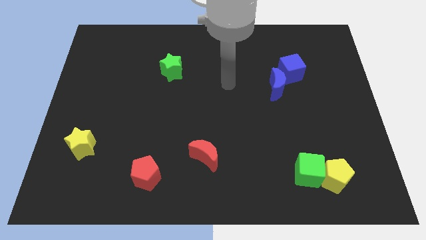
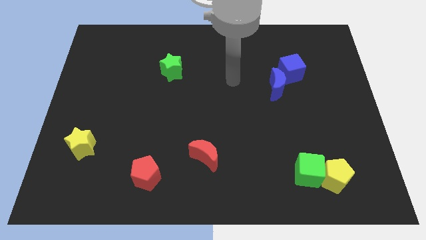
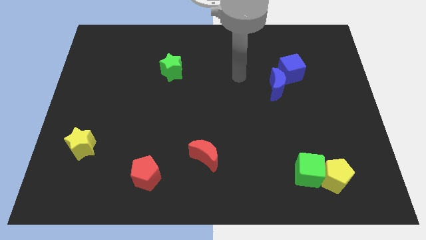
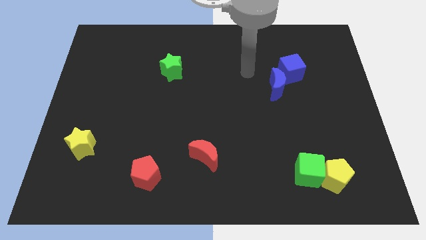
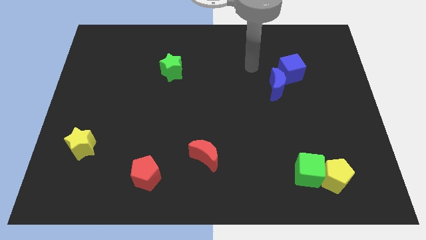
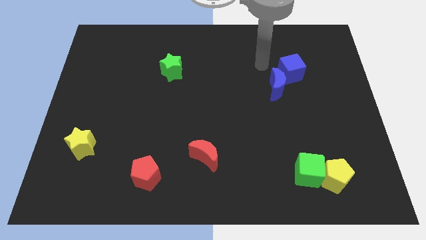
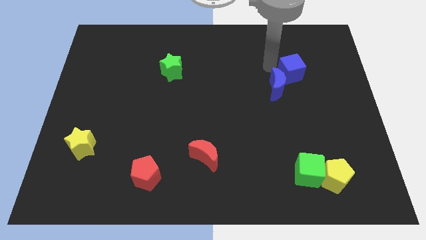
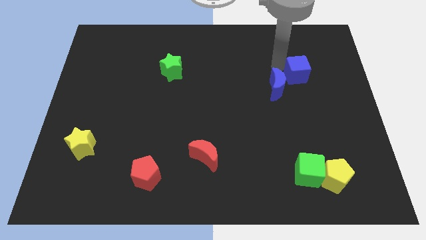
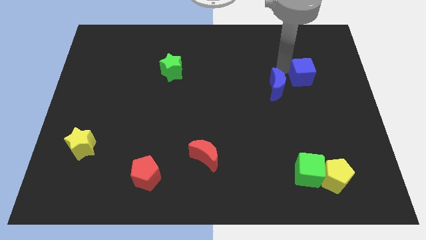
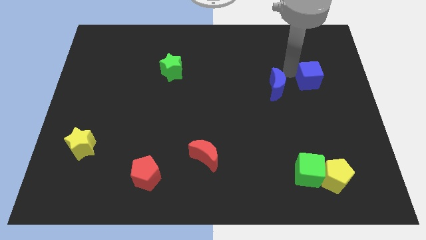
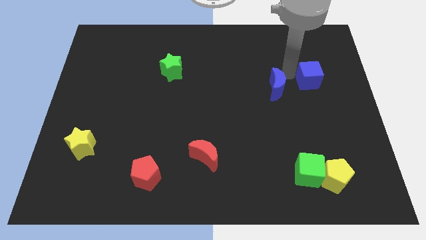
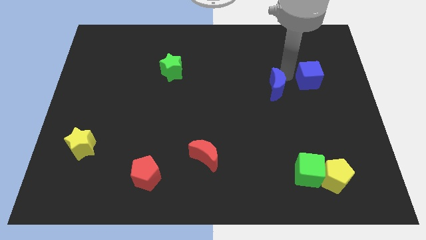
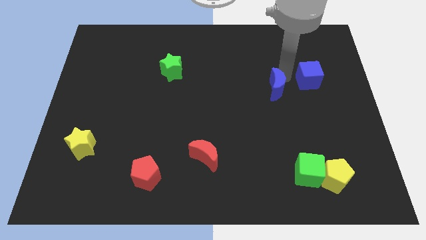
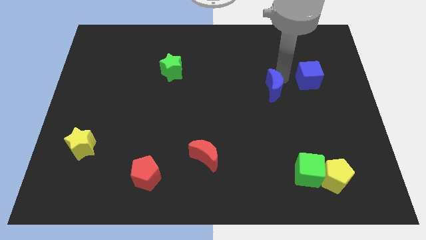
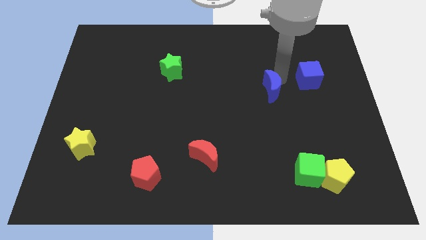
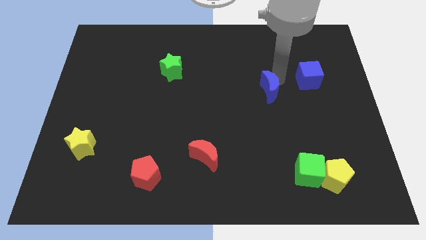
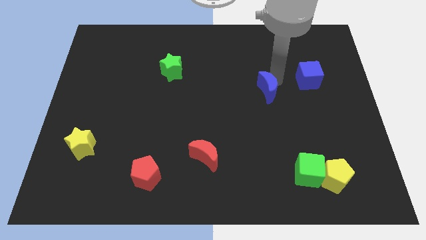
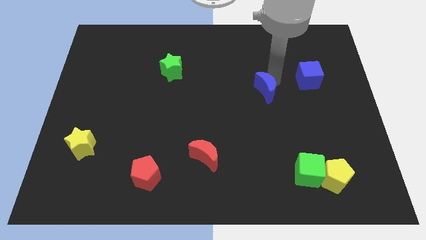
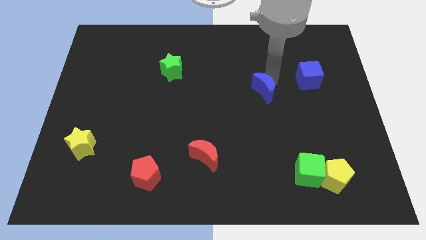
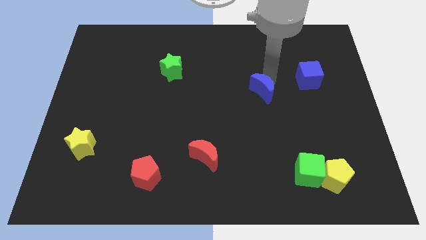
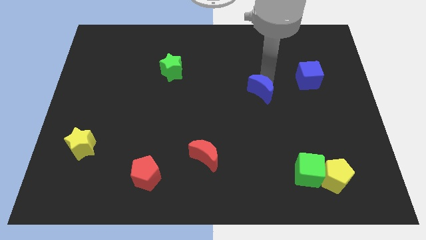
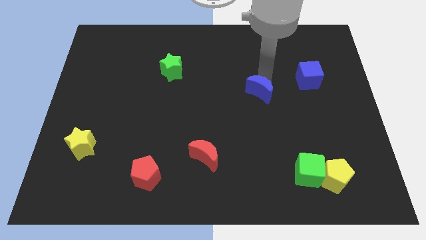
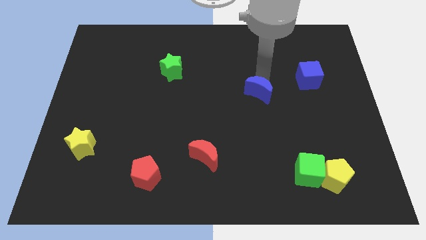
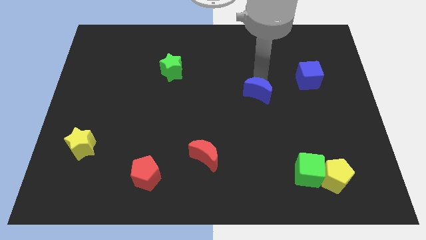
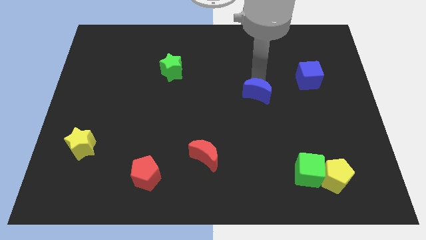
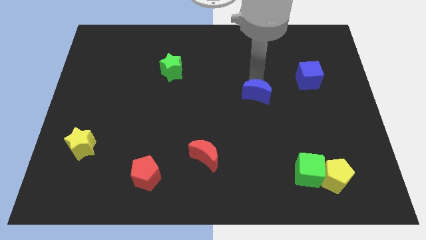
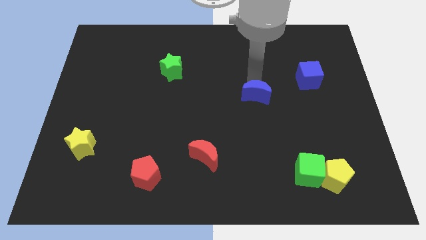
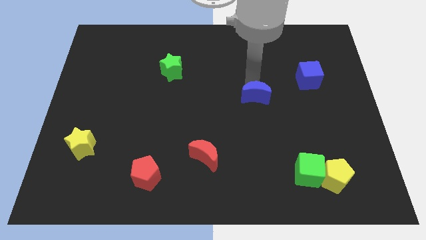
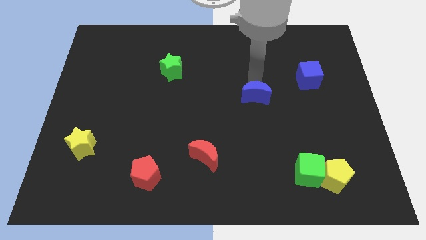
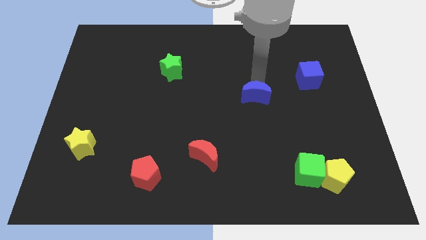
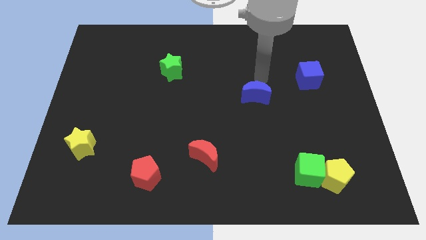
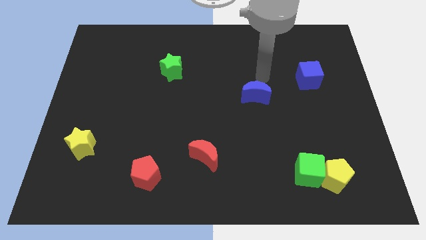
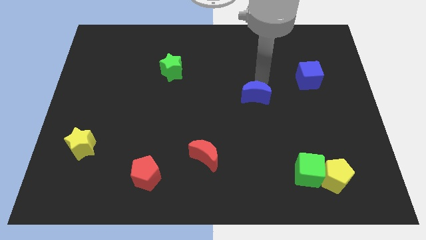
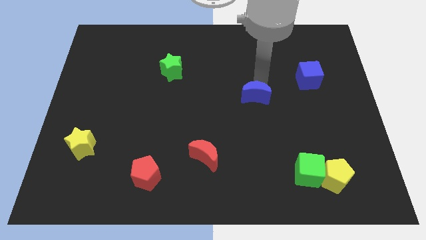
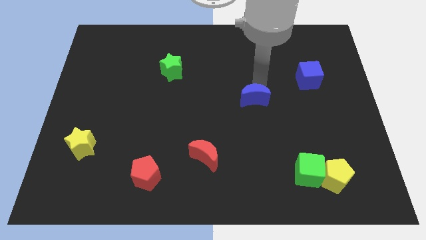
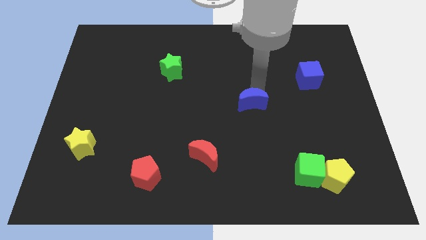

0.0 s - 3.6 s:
slightly move the blue moon down and to the left

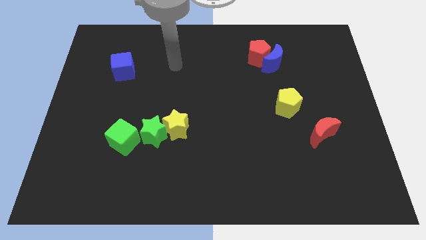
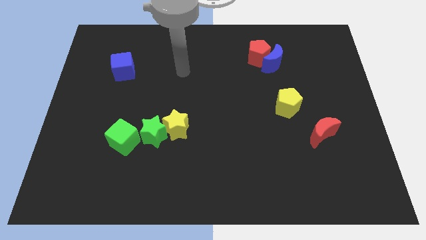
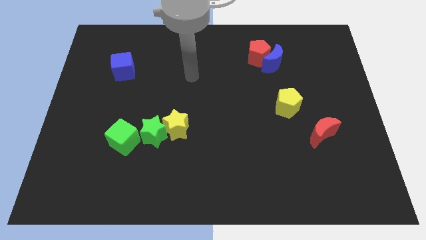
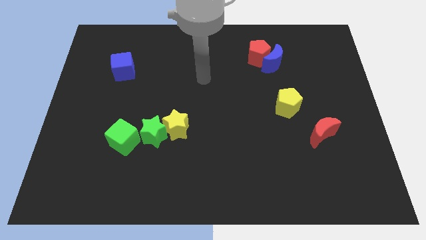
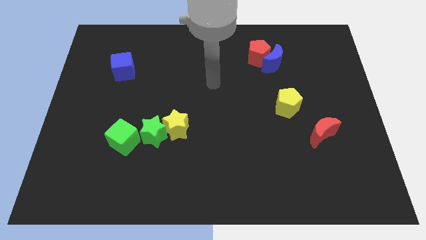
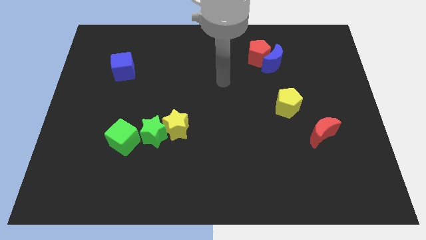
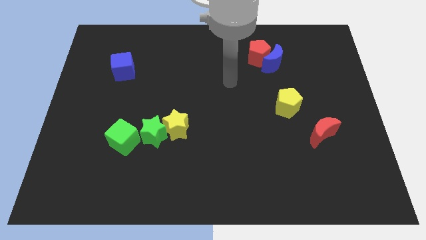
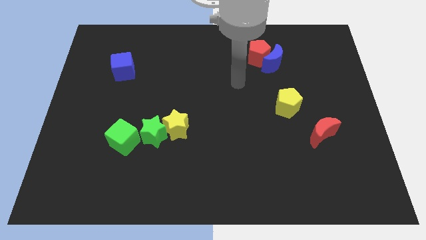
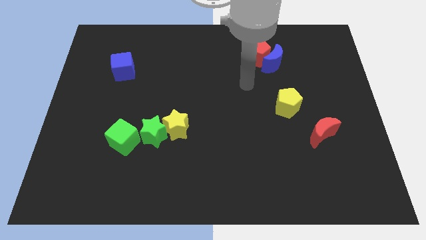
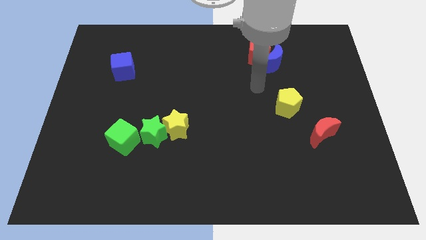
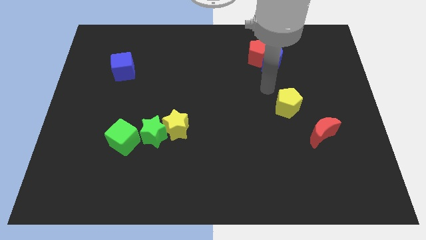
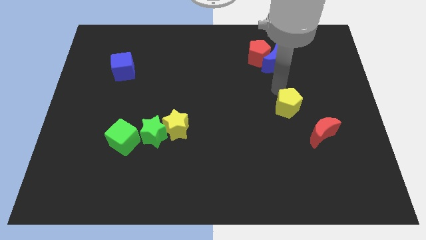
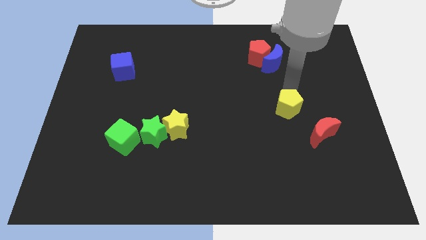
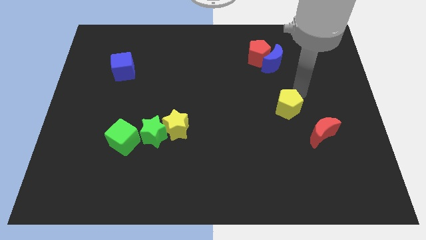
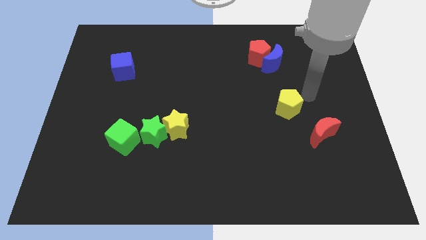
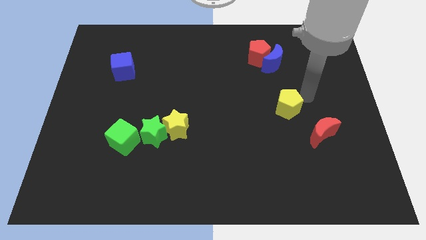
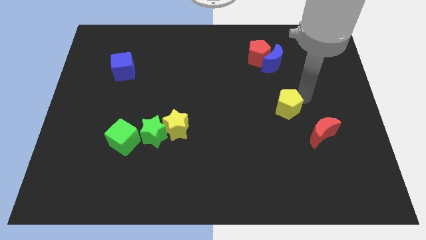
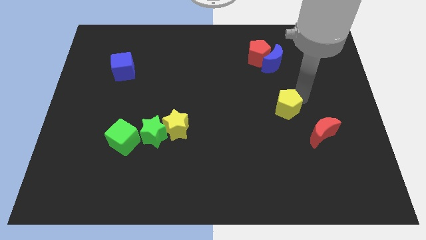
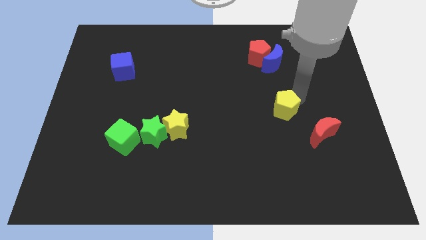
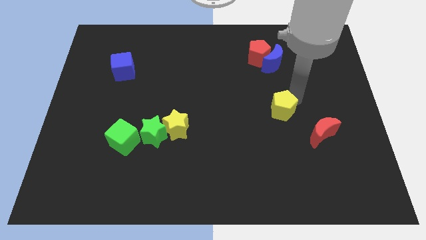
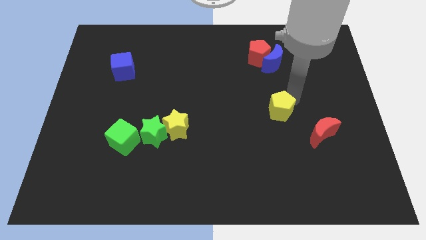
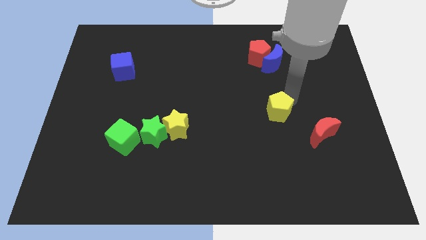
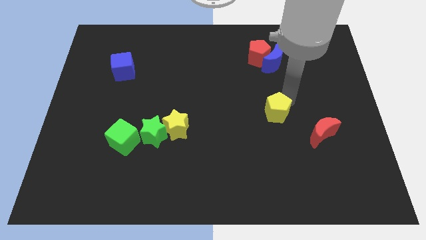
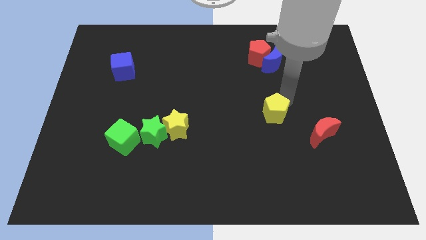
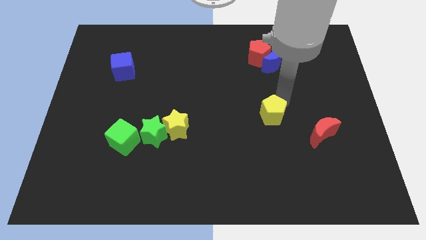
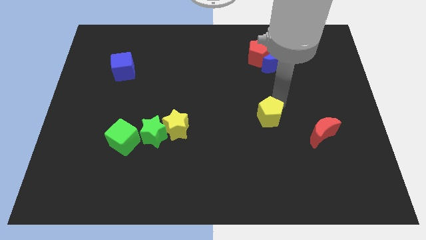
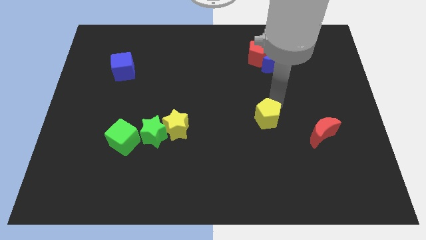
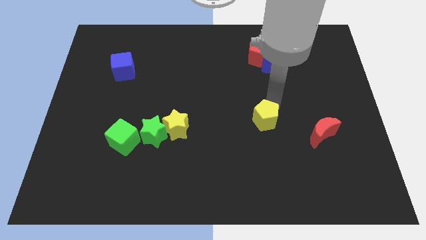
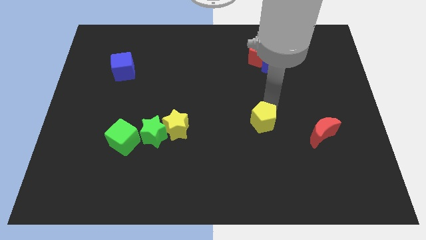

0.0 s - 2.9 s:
slightly slide the yellow pentagon down and left

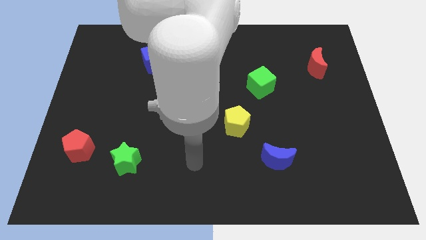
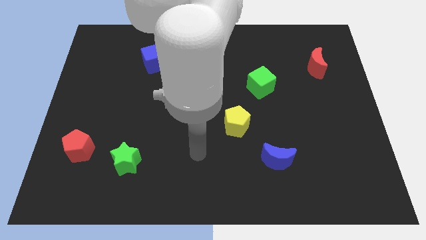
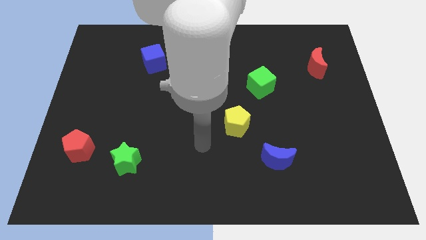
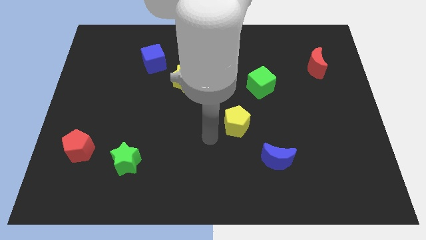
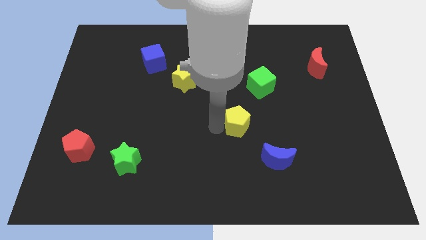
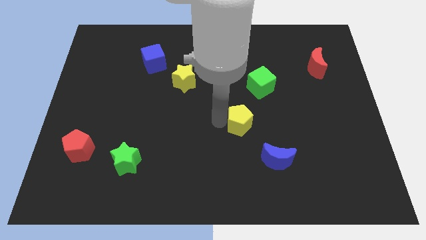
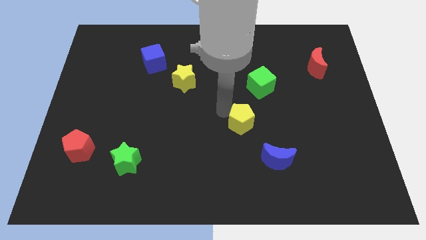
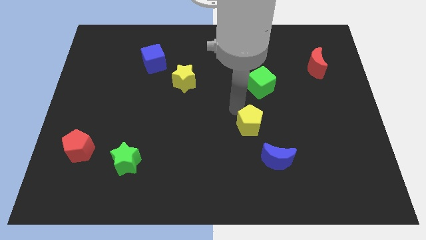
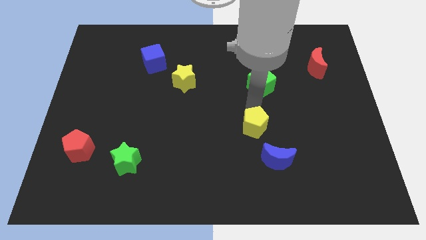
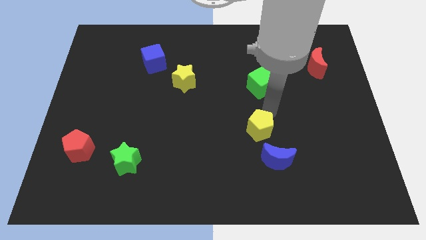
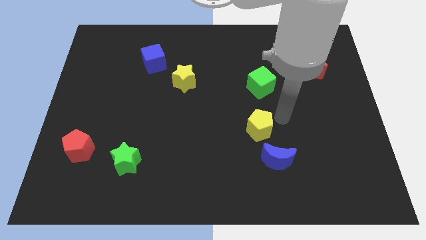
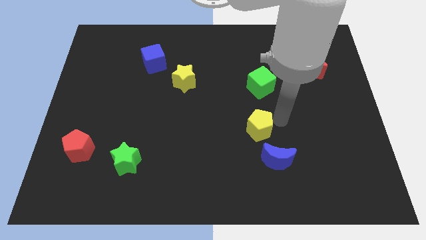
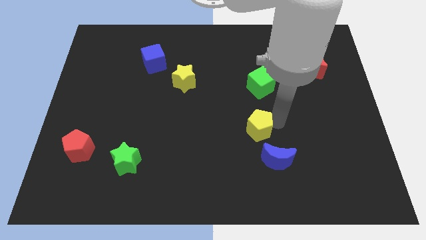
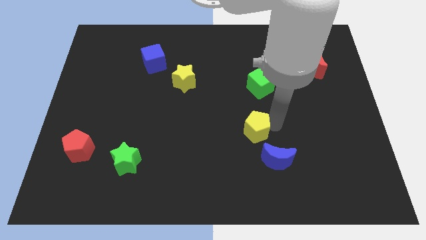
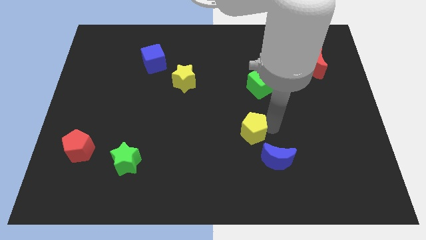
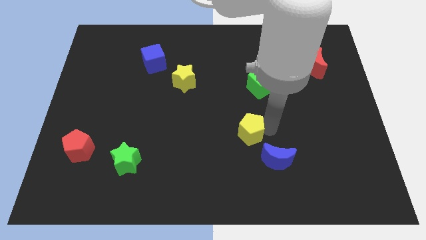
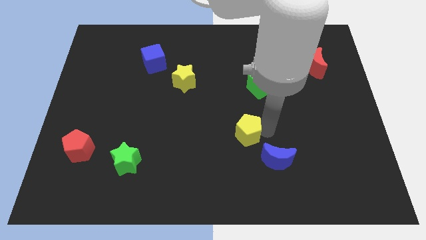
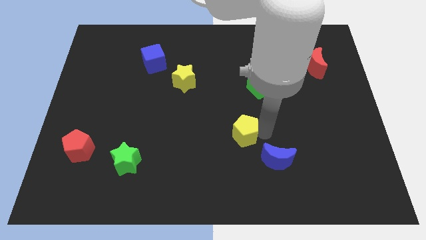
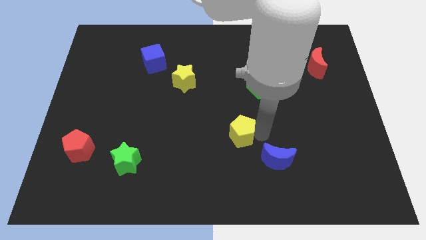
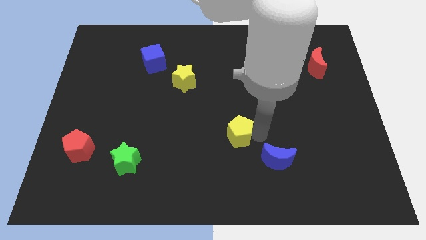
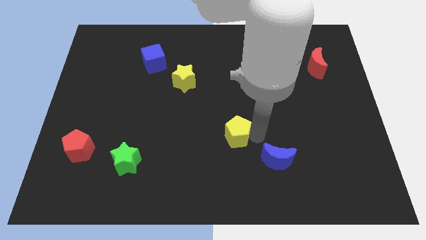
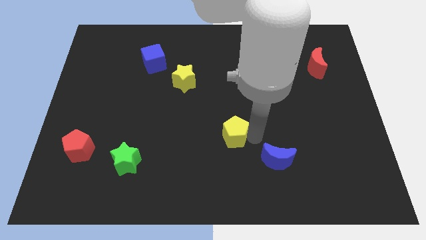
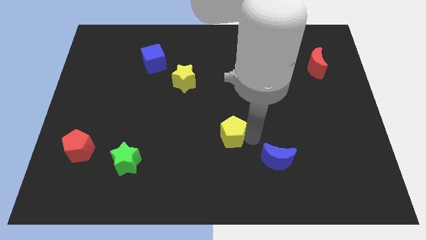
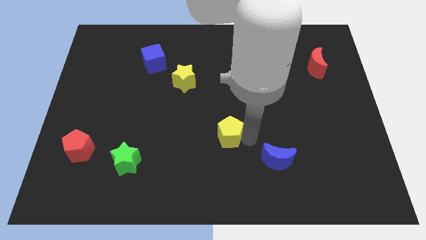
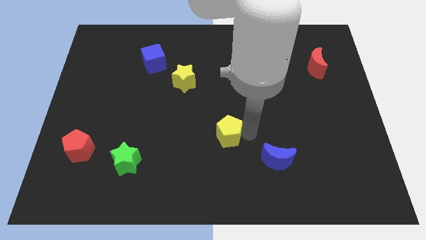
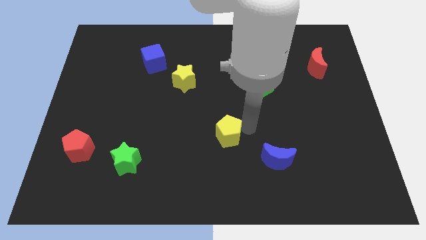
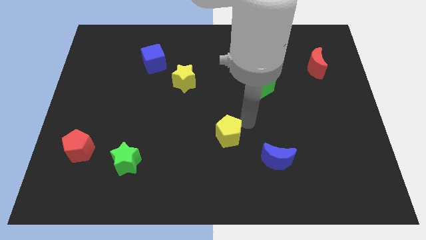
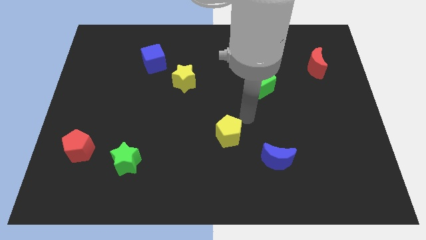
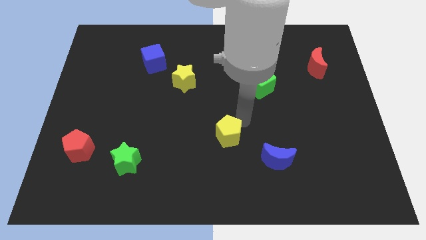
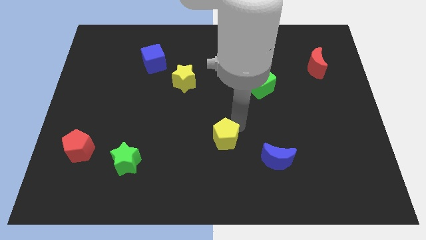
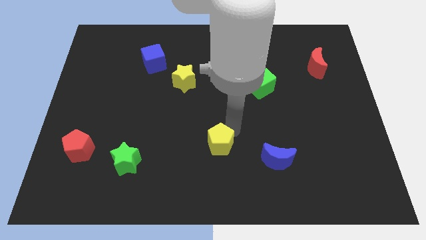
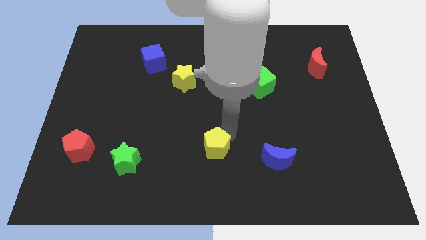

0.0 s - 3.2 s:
push the yellow pentagon down and left a bit
